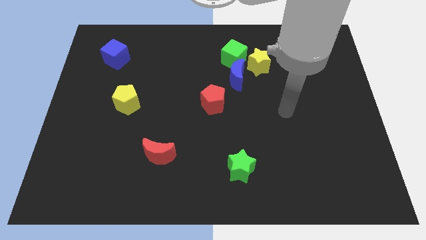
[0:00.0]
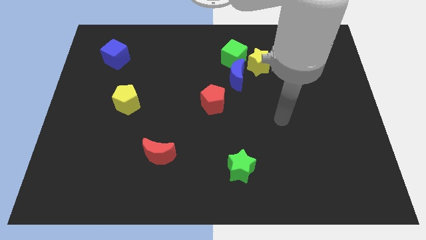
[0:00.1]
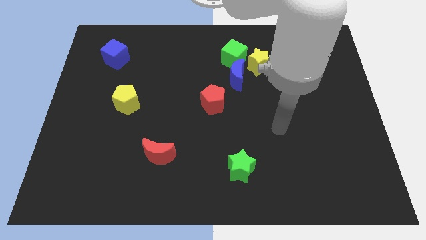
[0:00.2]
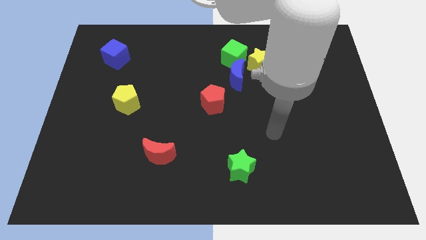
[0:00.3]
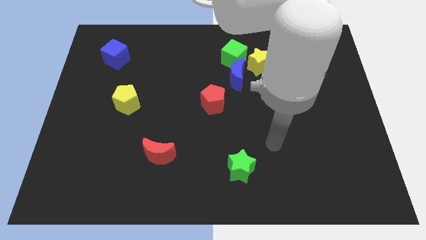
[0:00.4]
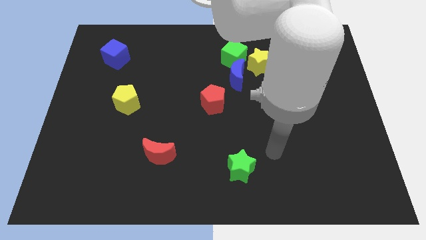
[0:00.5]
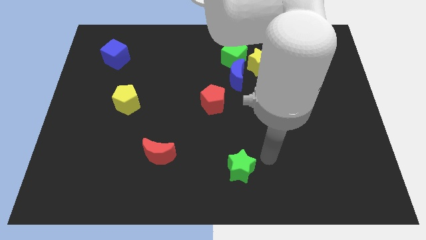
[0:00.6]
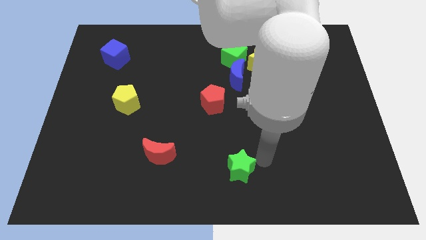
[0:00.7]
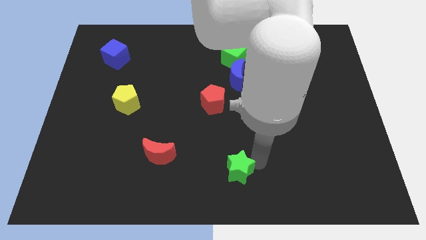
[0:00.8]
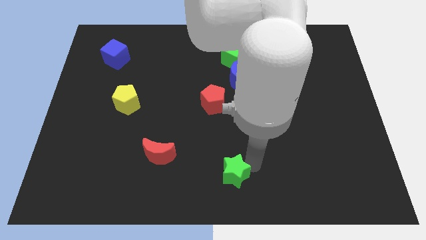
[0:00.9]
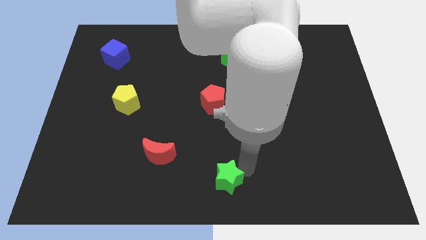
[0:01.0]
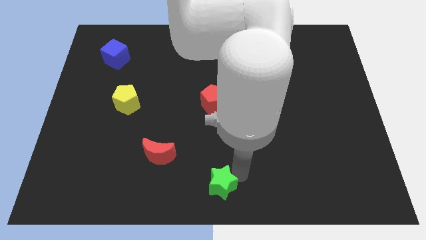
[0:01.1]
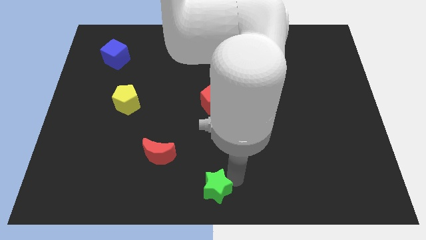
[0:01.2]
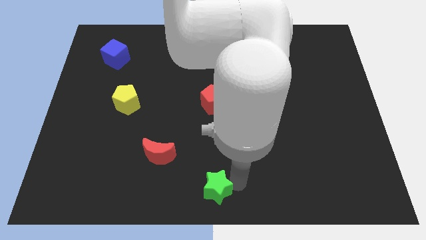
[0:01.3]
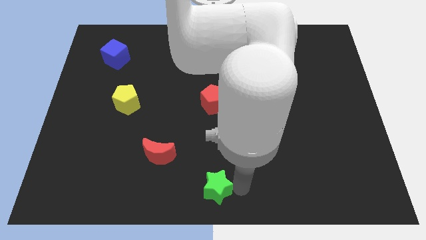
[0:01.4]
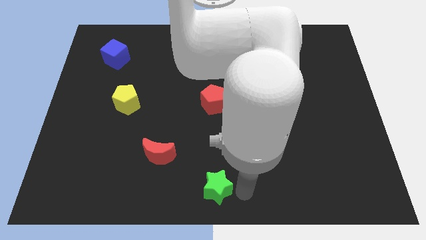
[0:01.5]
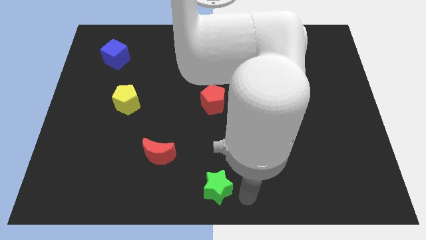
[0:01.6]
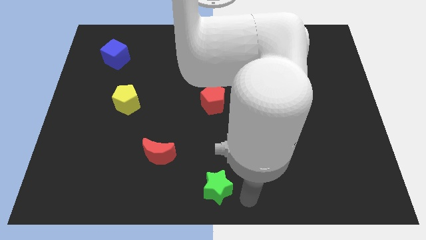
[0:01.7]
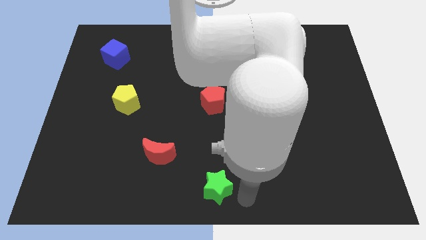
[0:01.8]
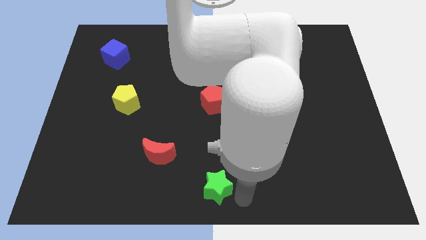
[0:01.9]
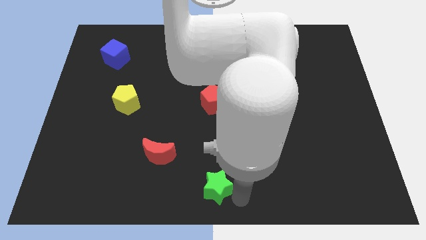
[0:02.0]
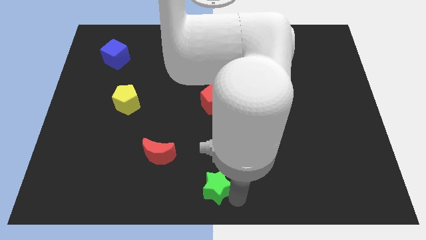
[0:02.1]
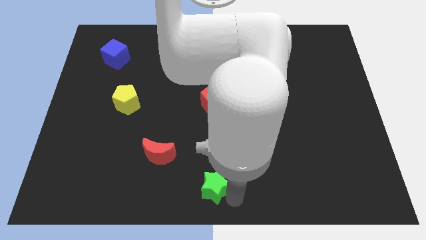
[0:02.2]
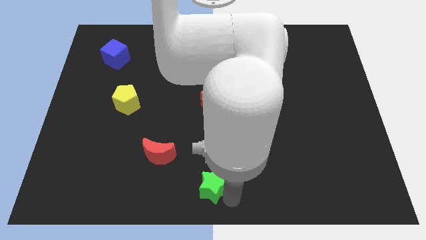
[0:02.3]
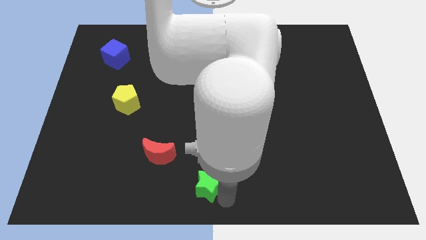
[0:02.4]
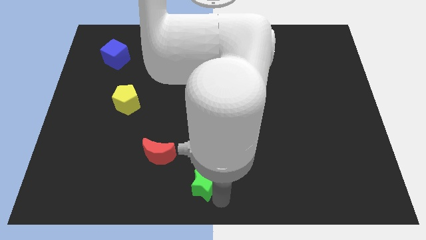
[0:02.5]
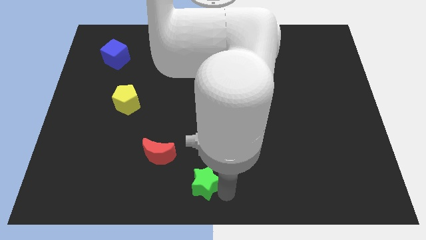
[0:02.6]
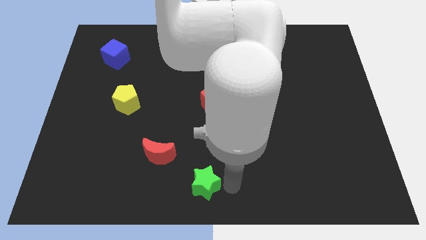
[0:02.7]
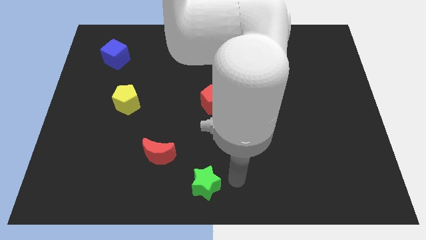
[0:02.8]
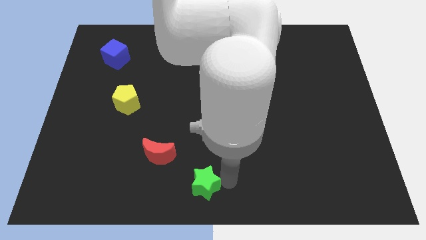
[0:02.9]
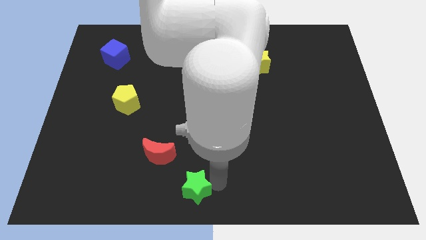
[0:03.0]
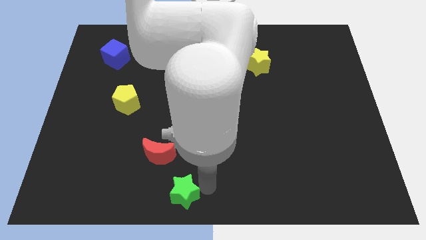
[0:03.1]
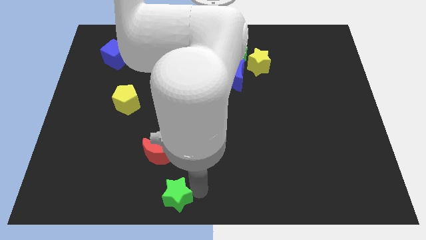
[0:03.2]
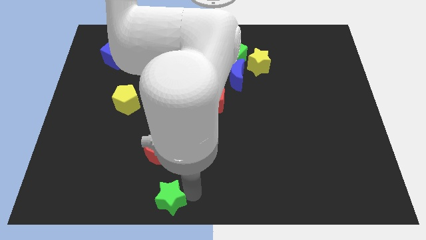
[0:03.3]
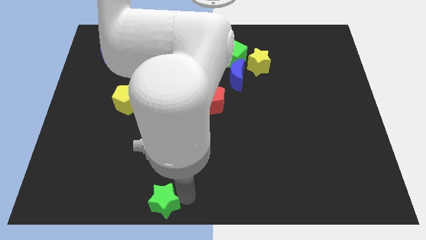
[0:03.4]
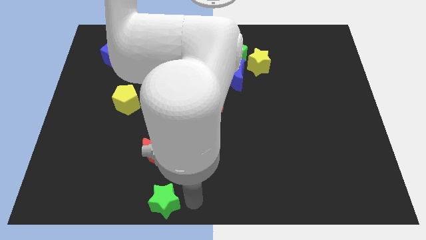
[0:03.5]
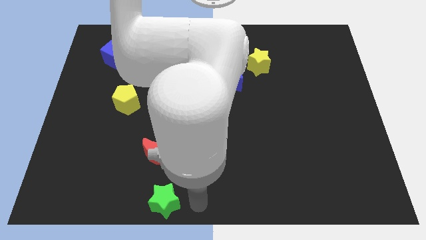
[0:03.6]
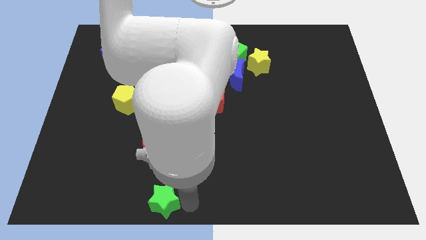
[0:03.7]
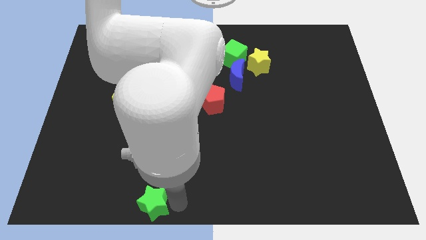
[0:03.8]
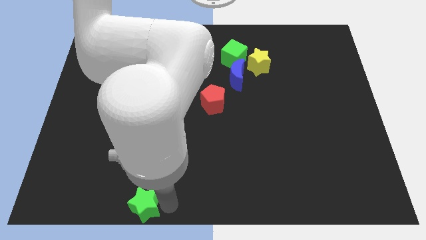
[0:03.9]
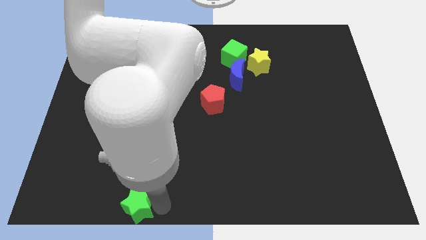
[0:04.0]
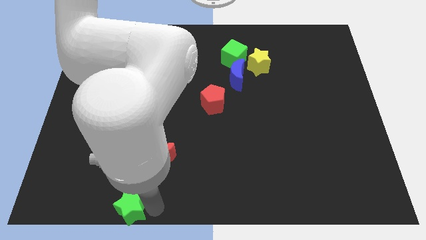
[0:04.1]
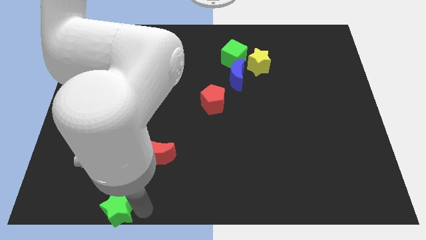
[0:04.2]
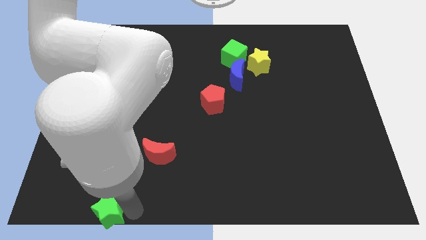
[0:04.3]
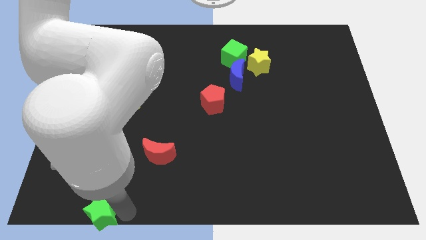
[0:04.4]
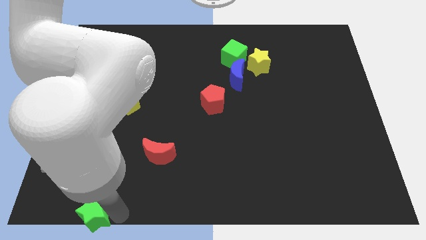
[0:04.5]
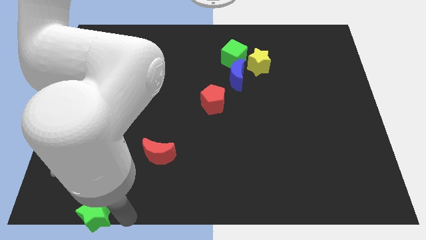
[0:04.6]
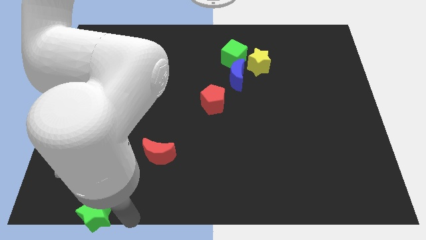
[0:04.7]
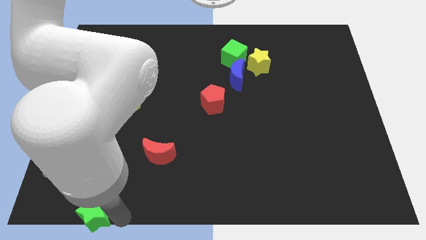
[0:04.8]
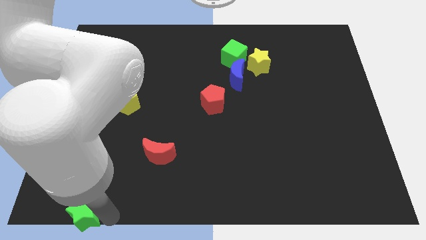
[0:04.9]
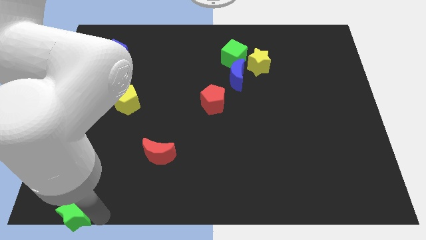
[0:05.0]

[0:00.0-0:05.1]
move the green star to the bottom left corner

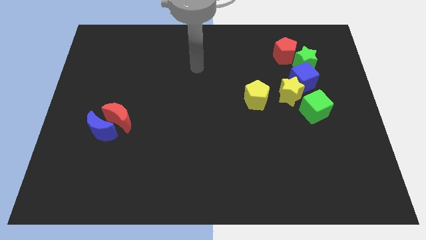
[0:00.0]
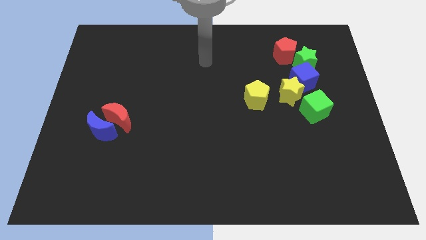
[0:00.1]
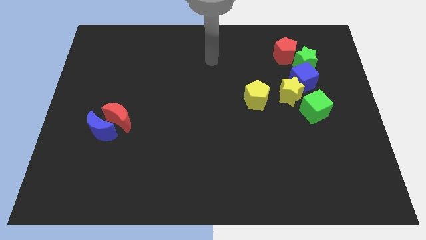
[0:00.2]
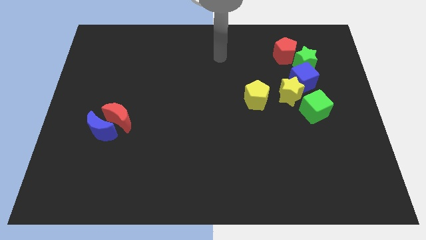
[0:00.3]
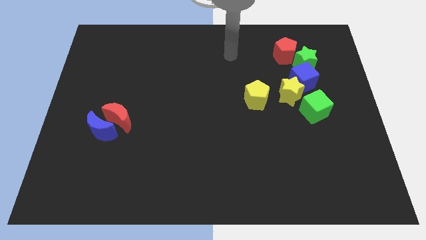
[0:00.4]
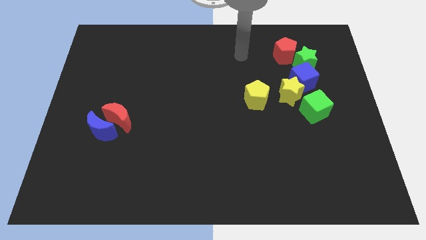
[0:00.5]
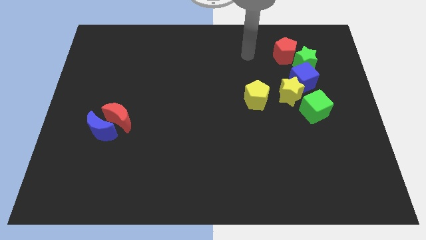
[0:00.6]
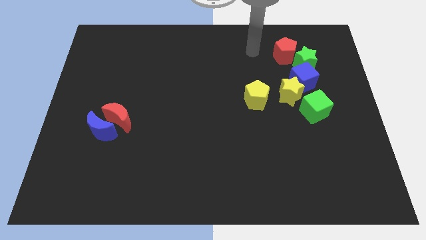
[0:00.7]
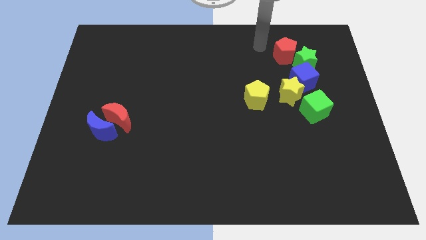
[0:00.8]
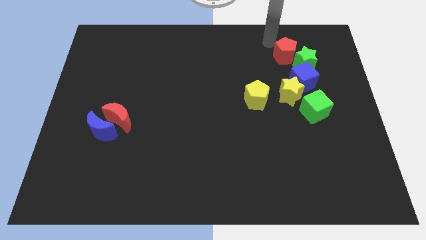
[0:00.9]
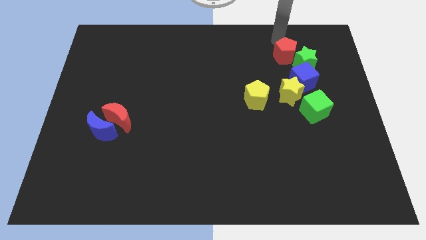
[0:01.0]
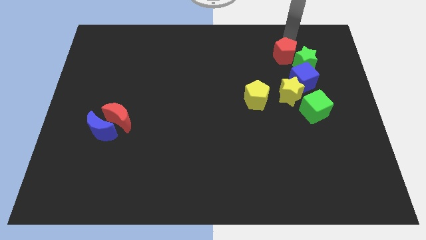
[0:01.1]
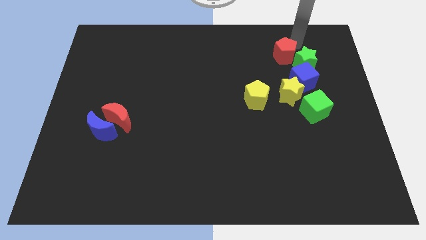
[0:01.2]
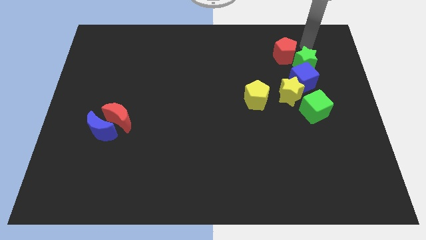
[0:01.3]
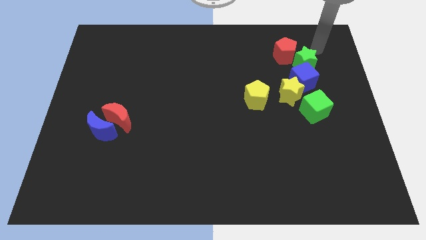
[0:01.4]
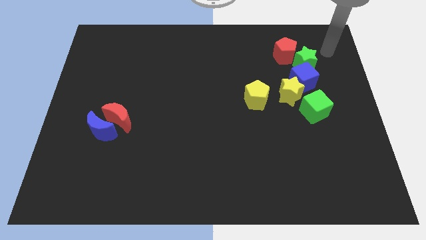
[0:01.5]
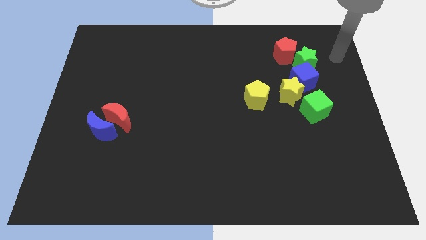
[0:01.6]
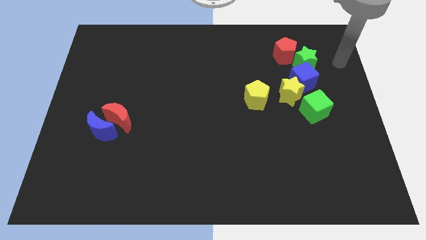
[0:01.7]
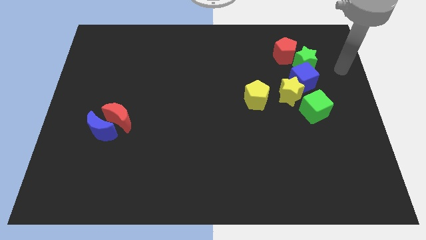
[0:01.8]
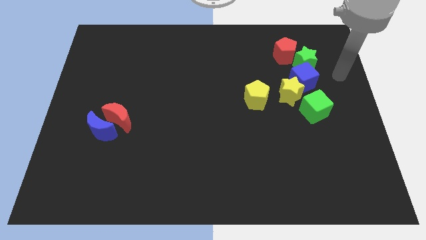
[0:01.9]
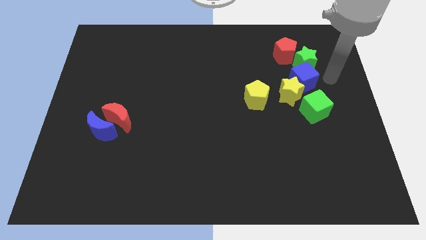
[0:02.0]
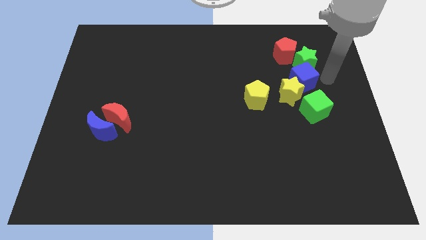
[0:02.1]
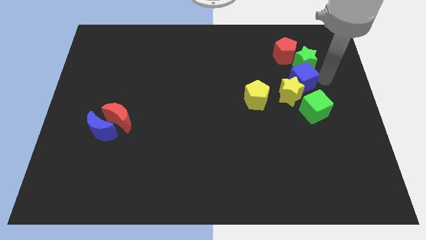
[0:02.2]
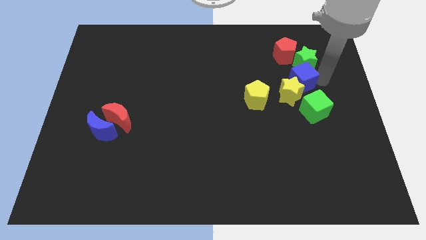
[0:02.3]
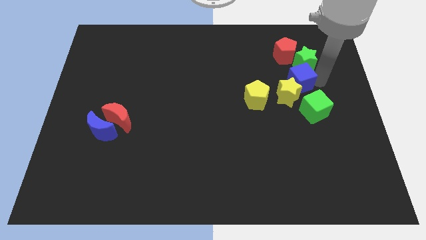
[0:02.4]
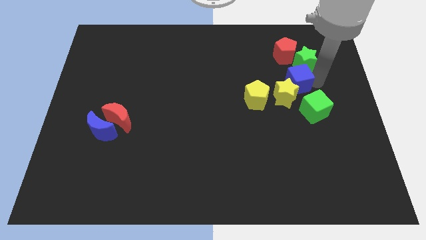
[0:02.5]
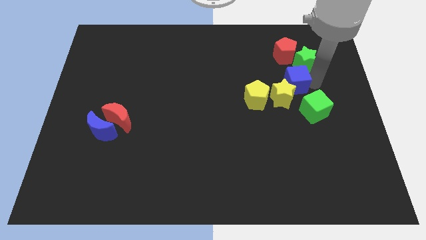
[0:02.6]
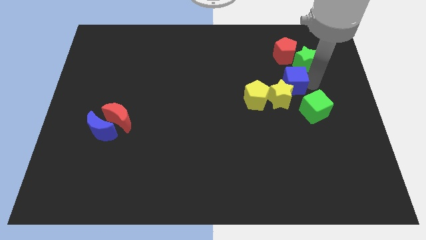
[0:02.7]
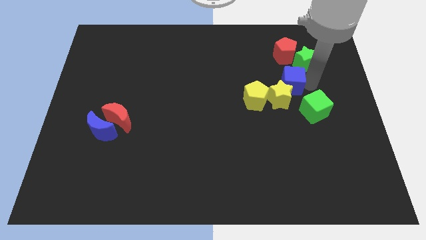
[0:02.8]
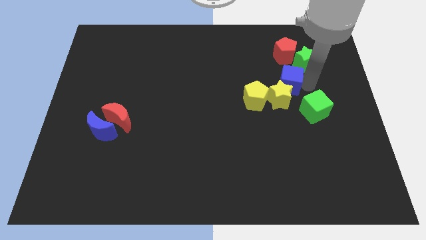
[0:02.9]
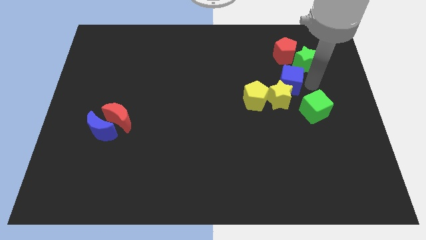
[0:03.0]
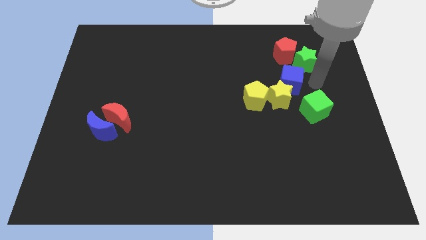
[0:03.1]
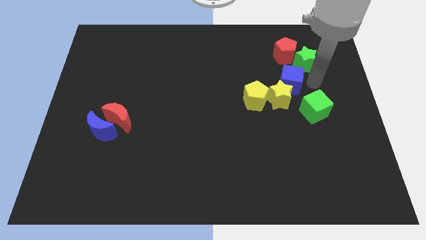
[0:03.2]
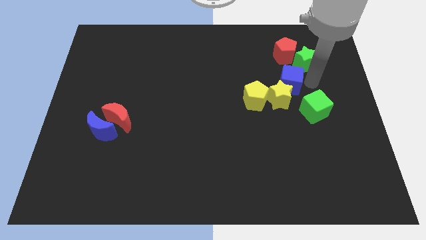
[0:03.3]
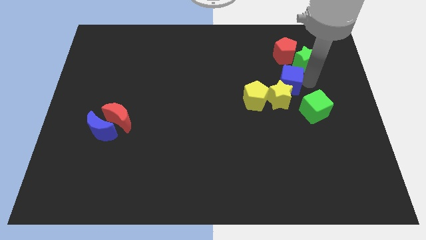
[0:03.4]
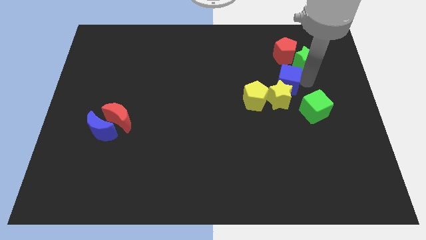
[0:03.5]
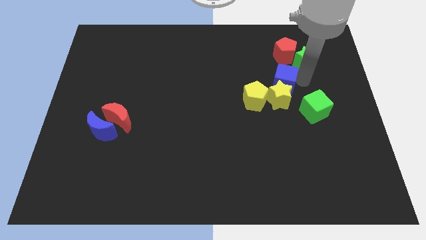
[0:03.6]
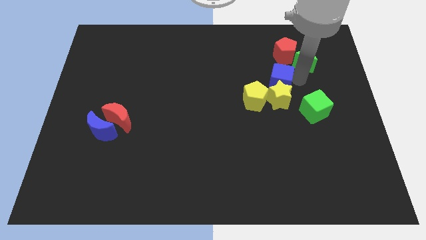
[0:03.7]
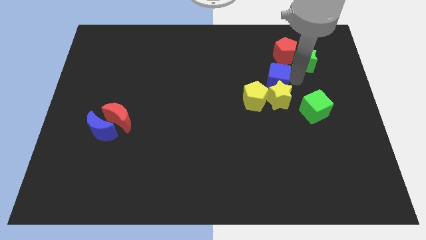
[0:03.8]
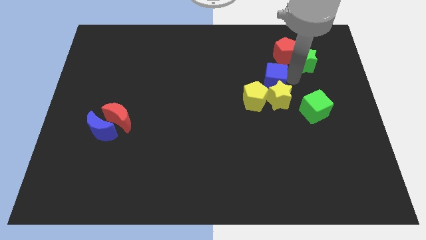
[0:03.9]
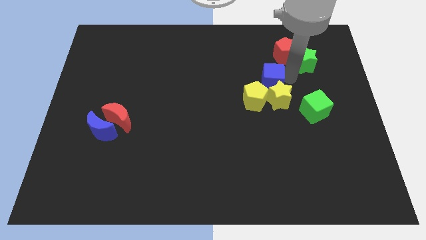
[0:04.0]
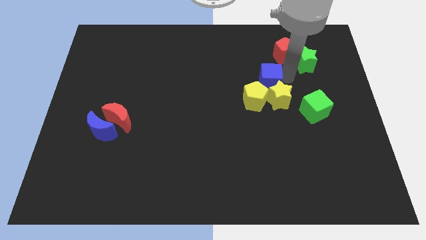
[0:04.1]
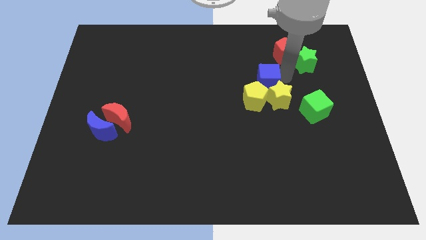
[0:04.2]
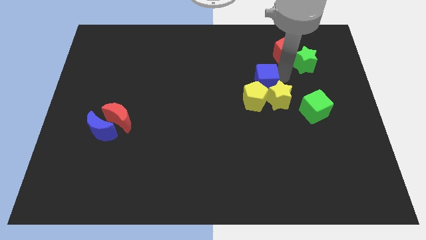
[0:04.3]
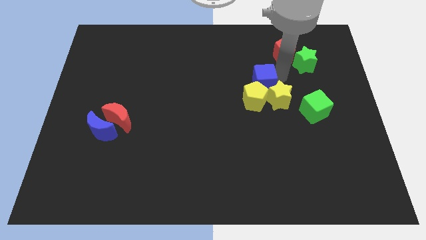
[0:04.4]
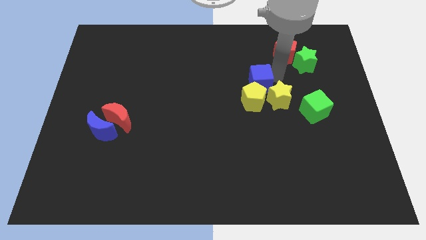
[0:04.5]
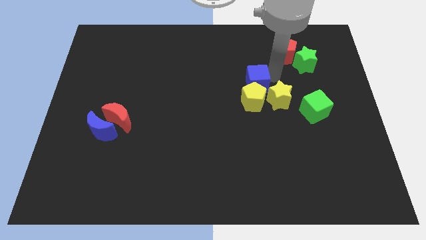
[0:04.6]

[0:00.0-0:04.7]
move the blue cube to the center of the board
